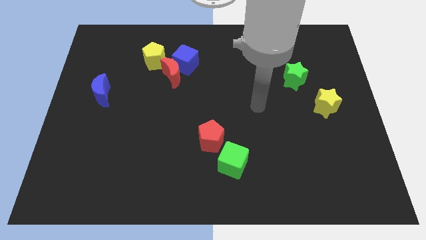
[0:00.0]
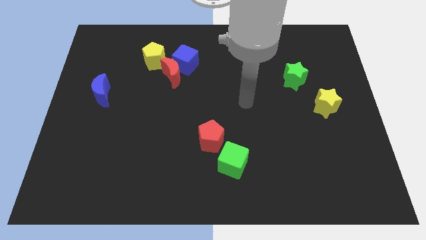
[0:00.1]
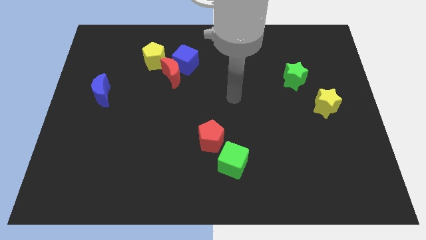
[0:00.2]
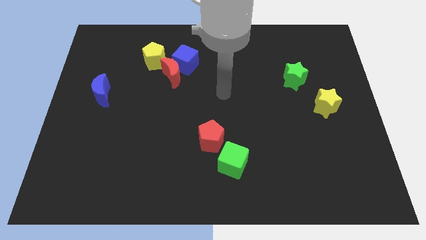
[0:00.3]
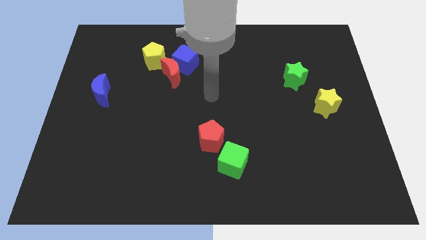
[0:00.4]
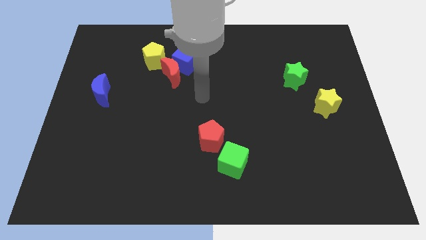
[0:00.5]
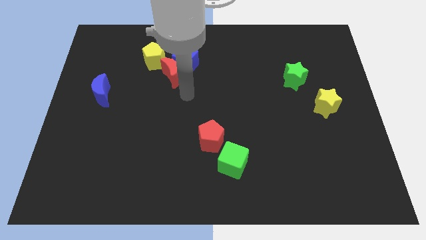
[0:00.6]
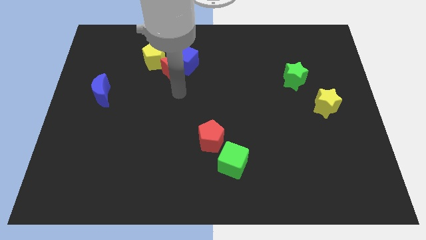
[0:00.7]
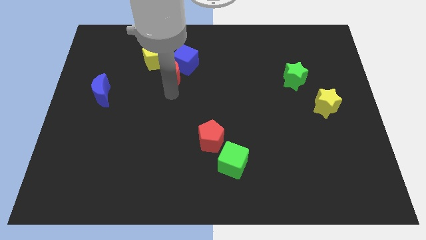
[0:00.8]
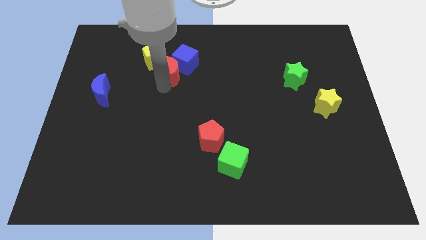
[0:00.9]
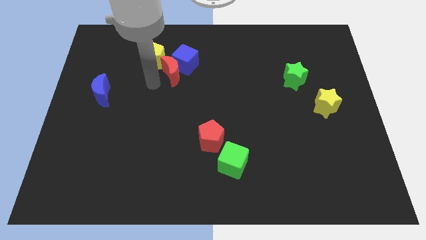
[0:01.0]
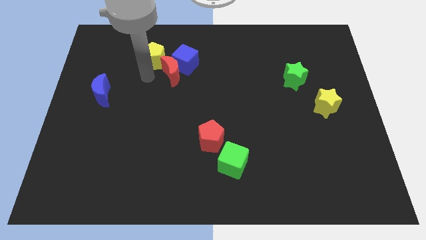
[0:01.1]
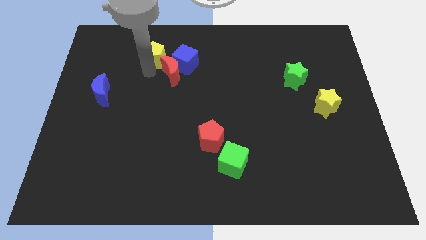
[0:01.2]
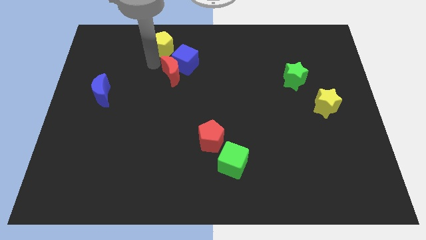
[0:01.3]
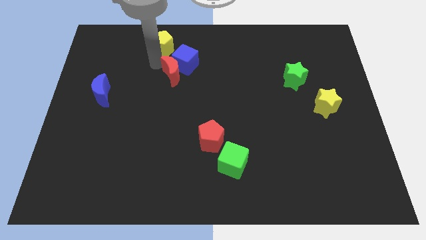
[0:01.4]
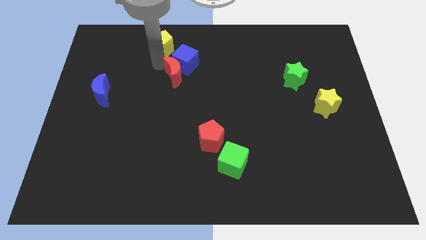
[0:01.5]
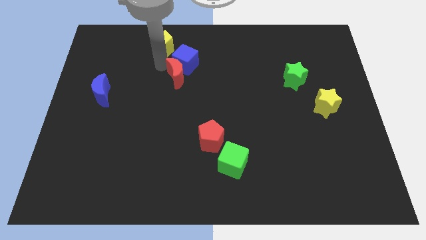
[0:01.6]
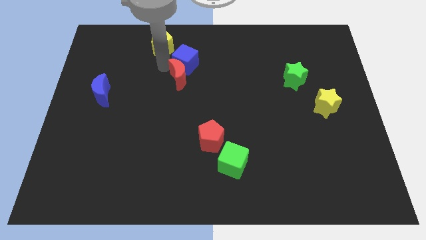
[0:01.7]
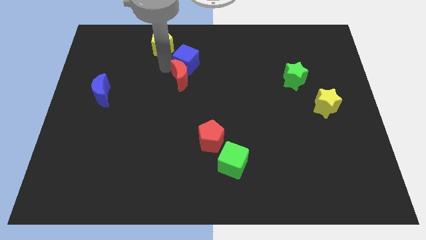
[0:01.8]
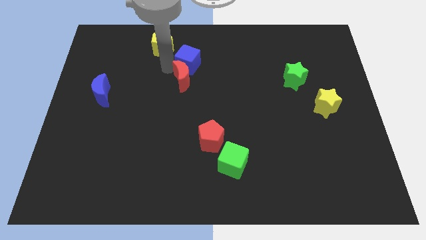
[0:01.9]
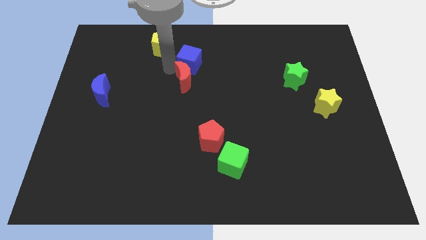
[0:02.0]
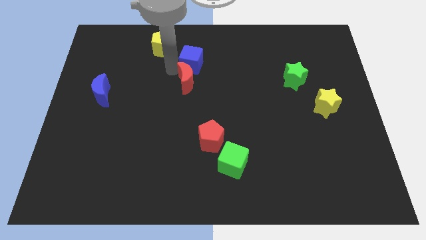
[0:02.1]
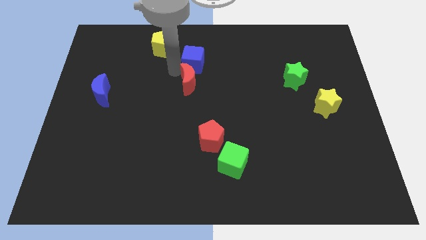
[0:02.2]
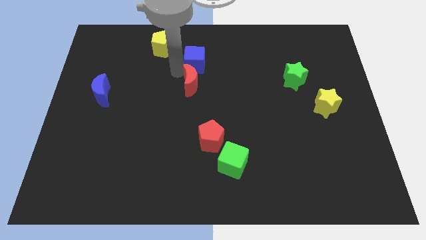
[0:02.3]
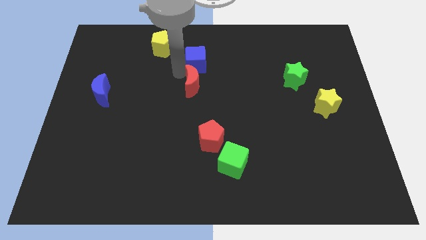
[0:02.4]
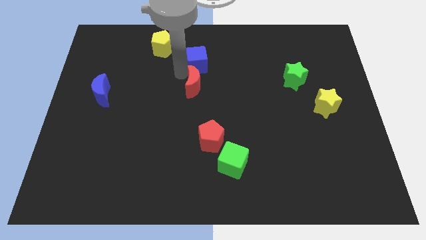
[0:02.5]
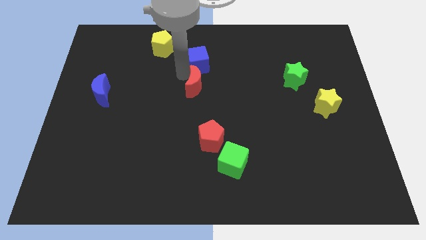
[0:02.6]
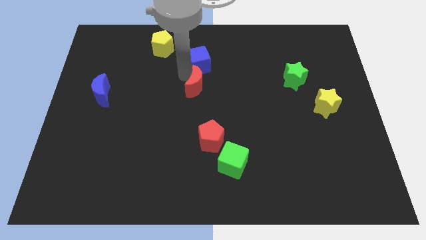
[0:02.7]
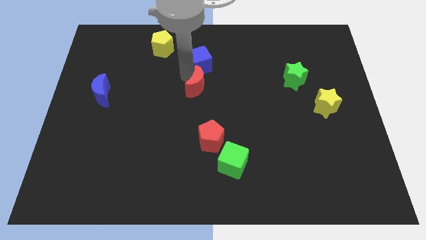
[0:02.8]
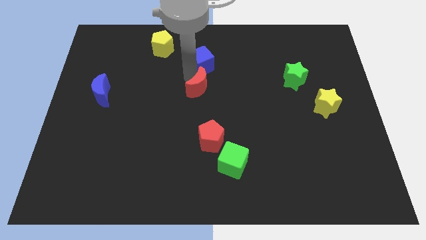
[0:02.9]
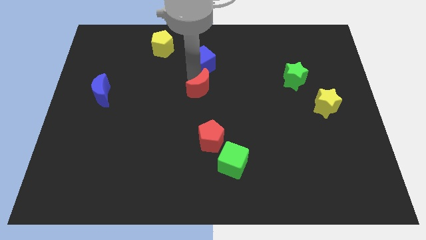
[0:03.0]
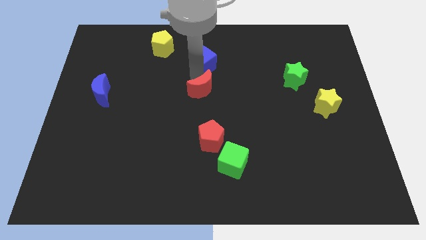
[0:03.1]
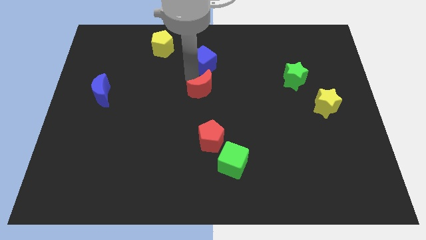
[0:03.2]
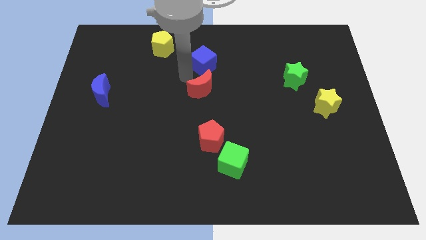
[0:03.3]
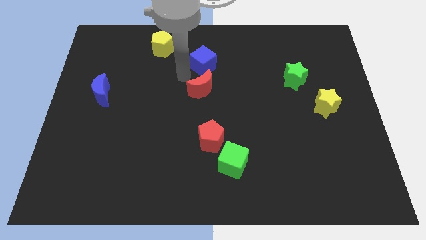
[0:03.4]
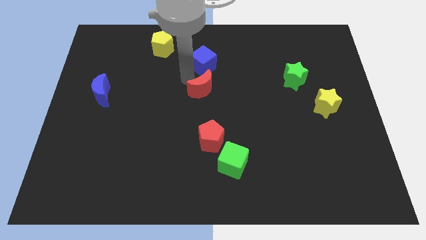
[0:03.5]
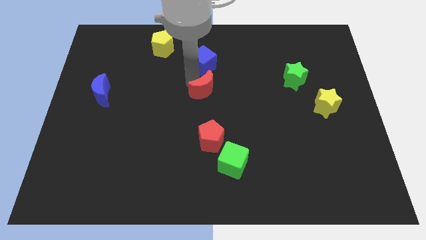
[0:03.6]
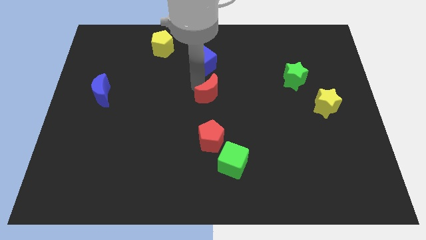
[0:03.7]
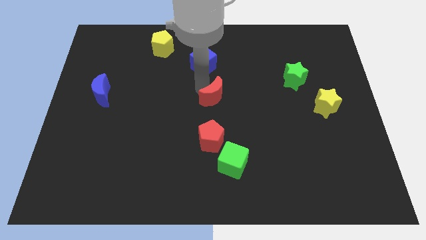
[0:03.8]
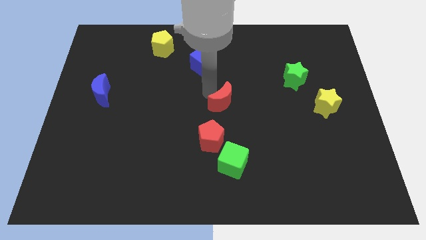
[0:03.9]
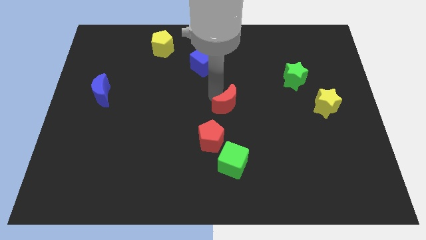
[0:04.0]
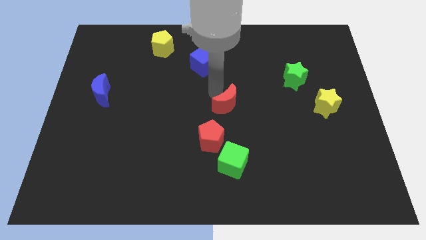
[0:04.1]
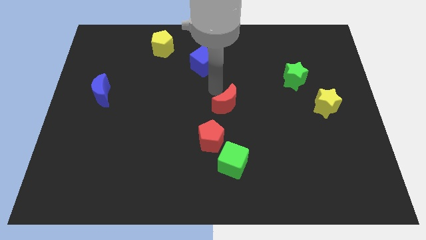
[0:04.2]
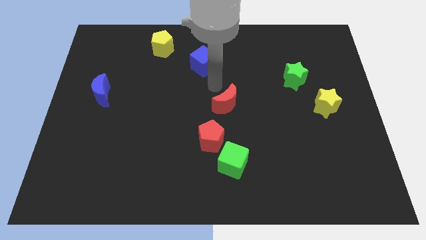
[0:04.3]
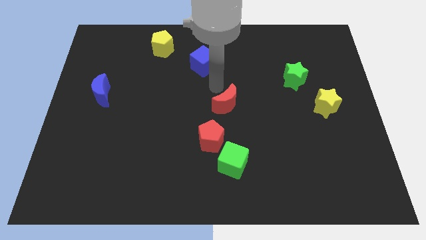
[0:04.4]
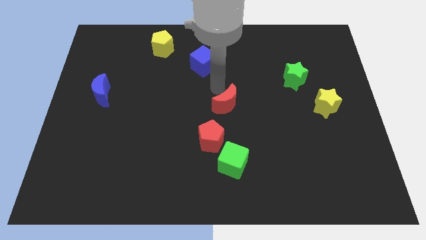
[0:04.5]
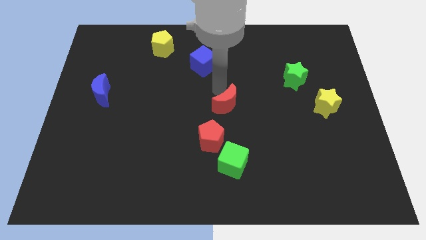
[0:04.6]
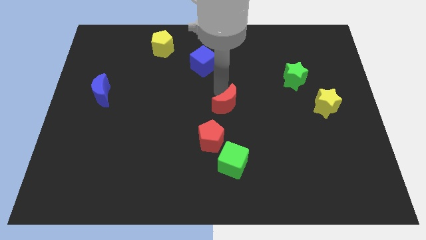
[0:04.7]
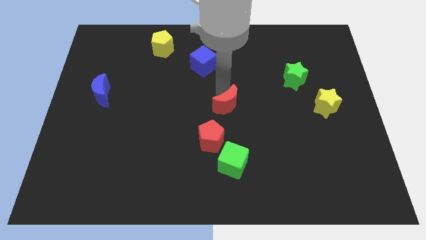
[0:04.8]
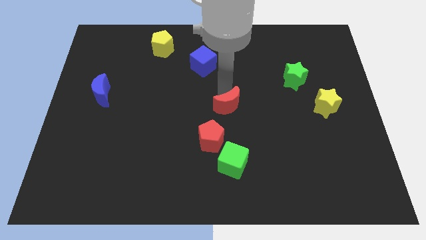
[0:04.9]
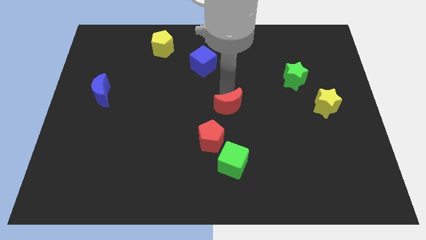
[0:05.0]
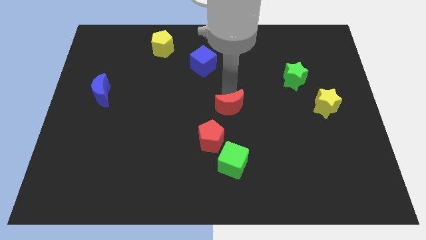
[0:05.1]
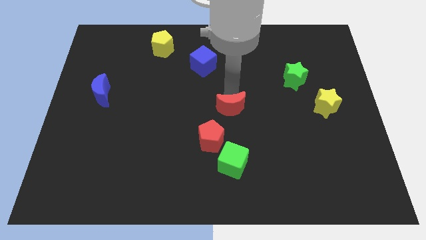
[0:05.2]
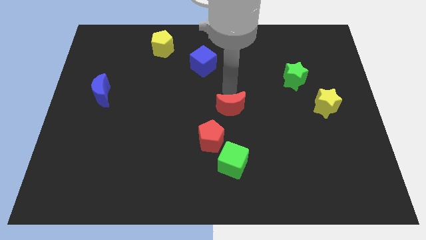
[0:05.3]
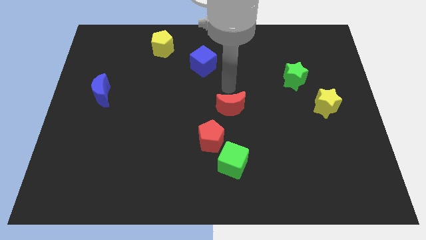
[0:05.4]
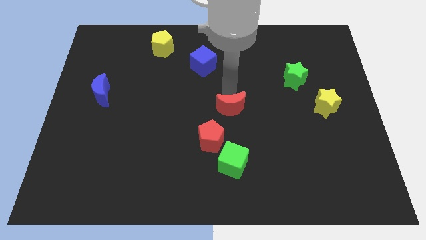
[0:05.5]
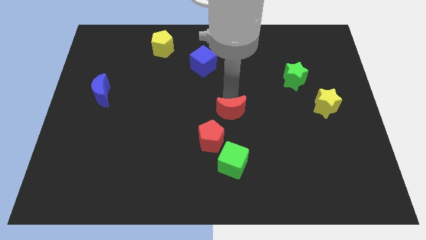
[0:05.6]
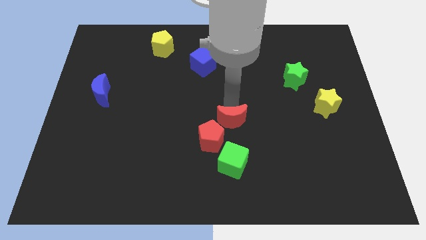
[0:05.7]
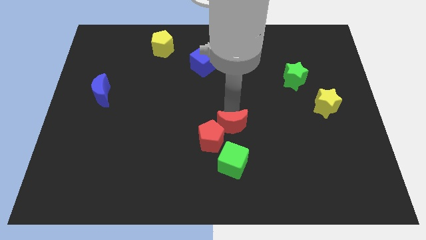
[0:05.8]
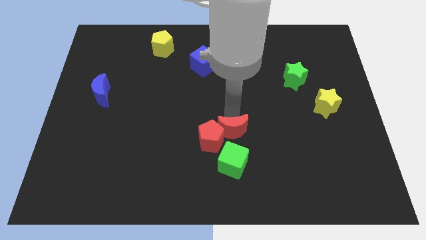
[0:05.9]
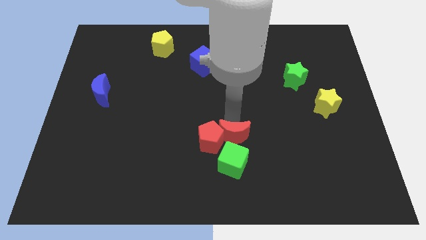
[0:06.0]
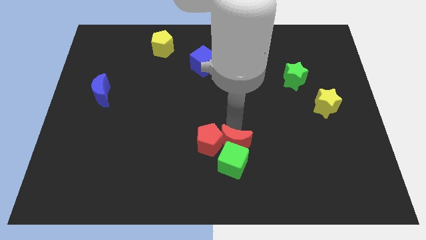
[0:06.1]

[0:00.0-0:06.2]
push the red moon next to the green cube

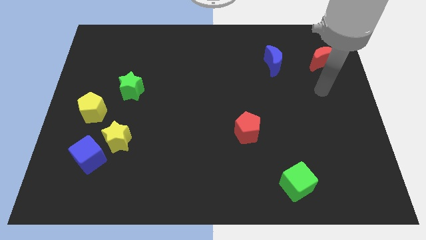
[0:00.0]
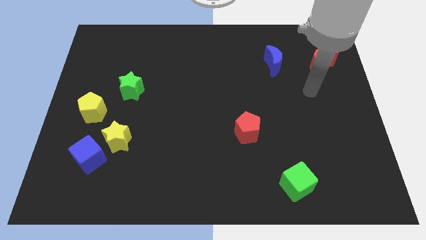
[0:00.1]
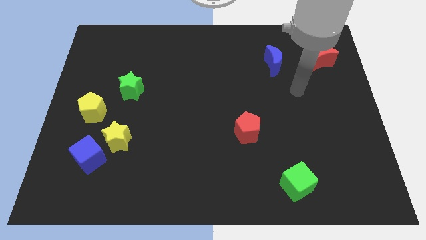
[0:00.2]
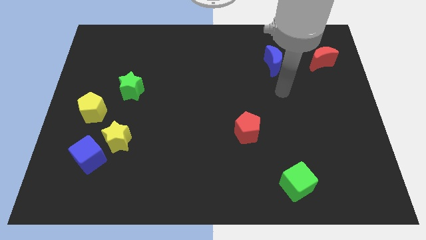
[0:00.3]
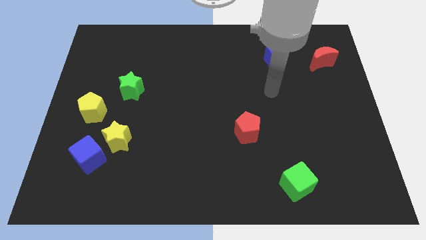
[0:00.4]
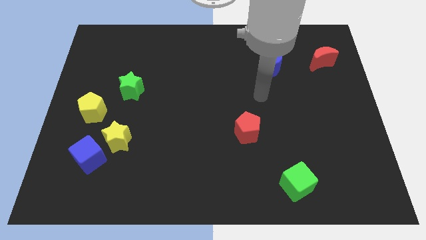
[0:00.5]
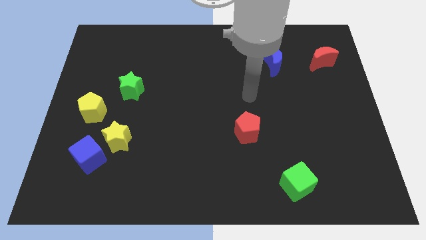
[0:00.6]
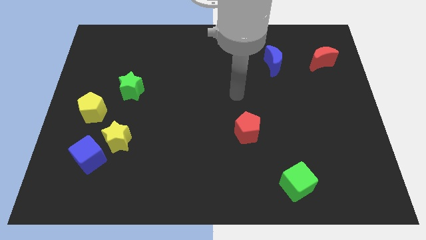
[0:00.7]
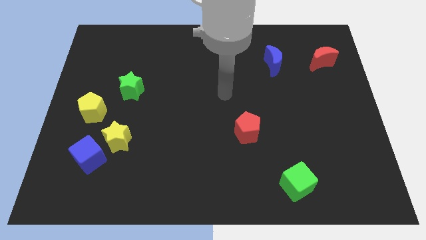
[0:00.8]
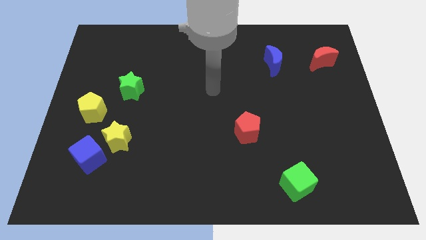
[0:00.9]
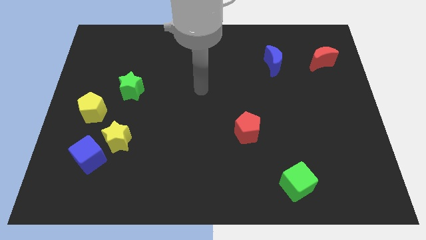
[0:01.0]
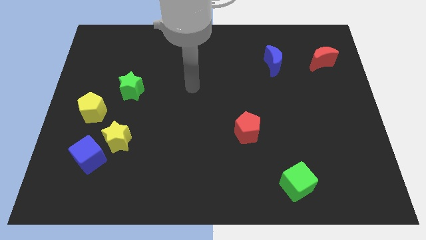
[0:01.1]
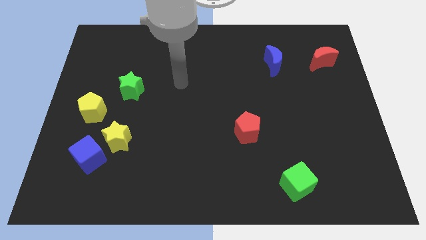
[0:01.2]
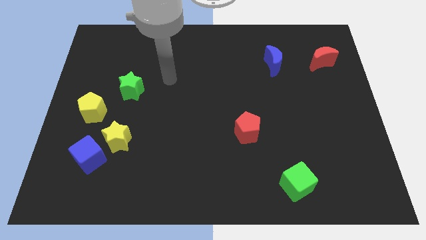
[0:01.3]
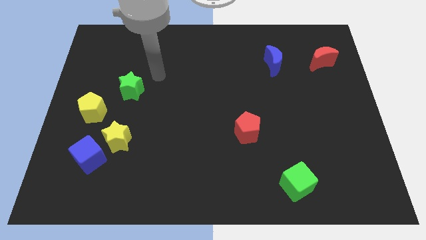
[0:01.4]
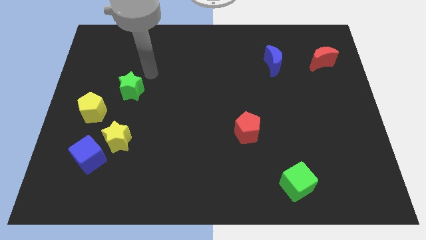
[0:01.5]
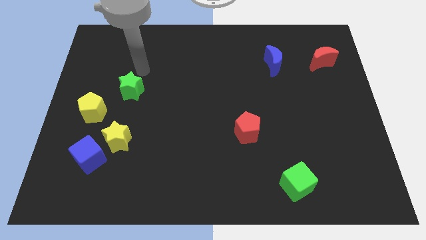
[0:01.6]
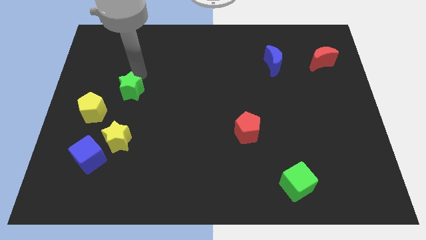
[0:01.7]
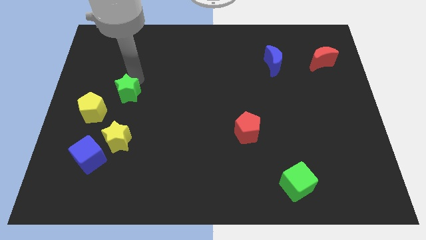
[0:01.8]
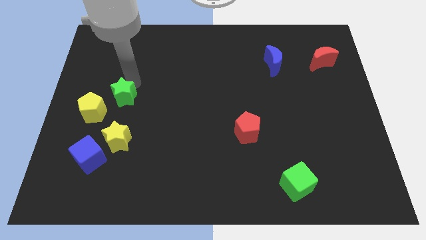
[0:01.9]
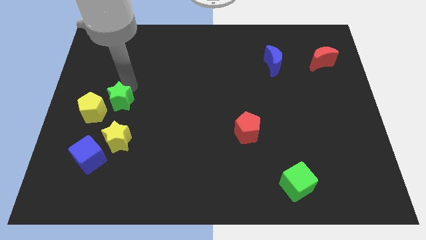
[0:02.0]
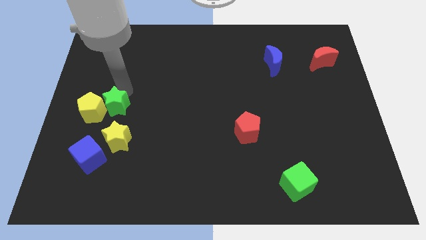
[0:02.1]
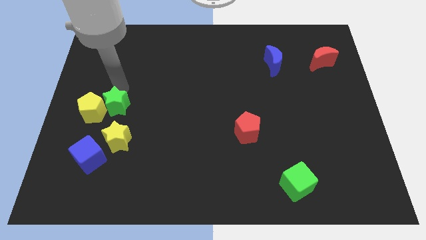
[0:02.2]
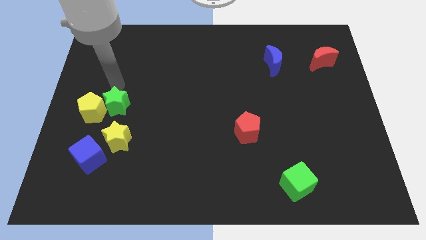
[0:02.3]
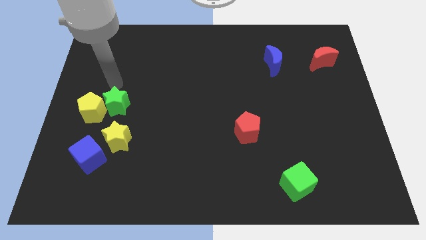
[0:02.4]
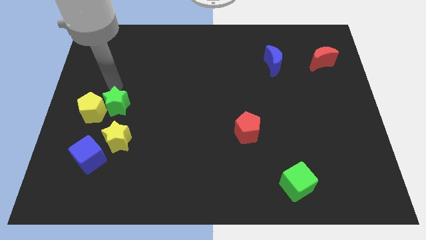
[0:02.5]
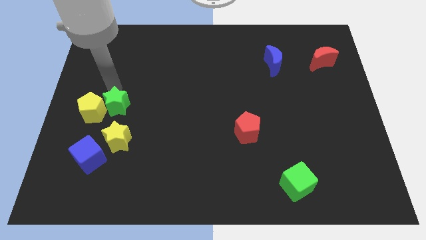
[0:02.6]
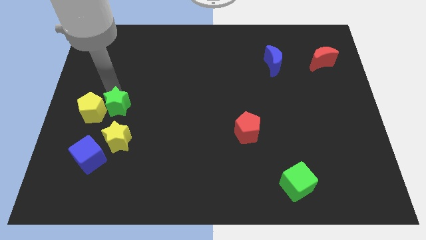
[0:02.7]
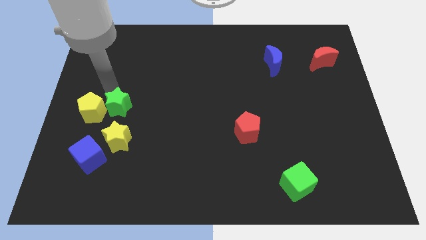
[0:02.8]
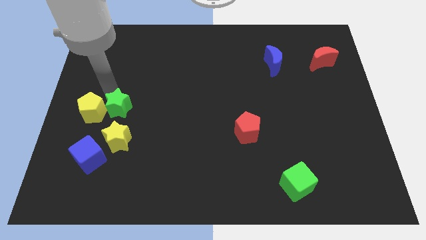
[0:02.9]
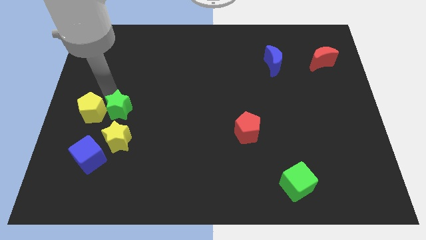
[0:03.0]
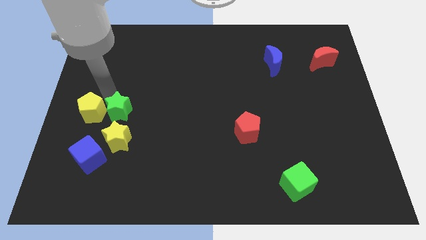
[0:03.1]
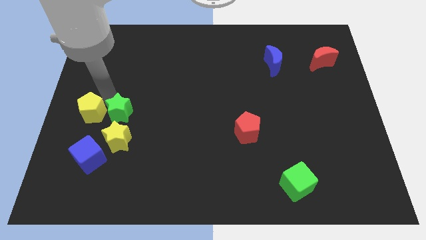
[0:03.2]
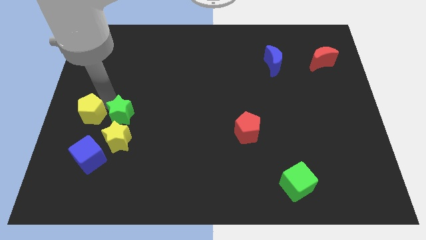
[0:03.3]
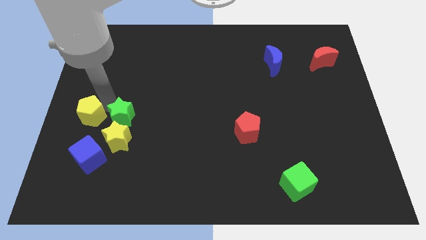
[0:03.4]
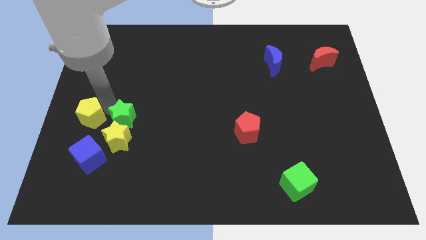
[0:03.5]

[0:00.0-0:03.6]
move the green star close to the yellow star
